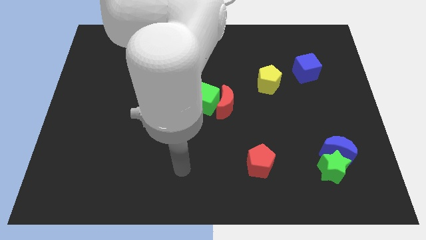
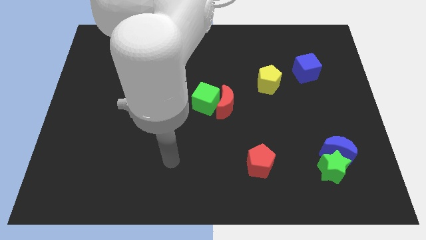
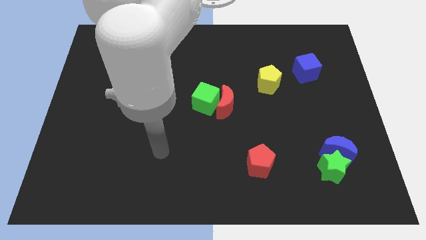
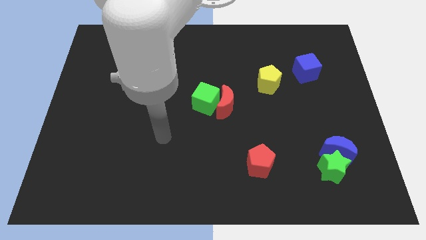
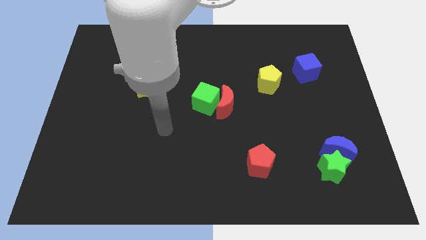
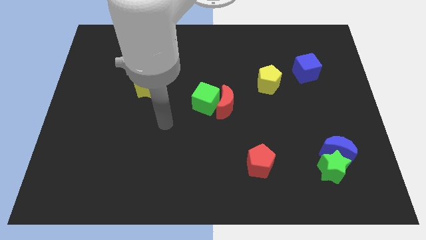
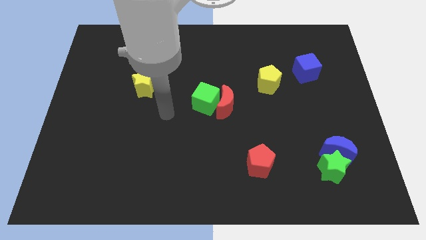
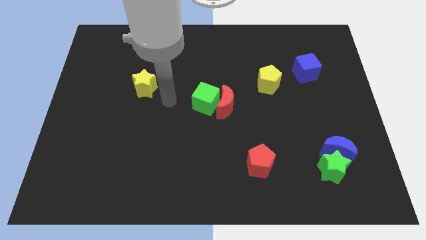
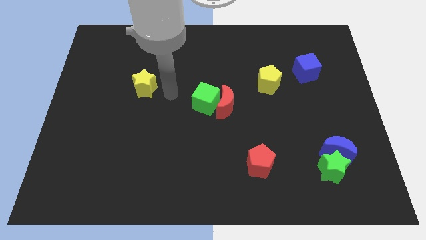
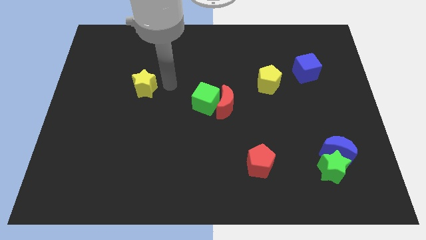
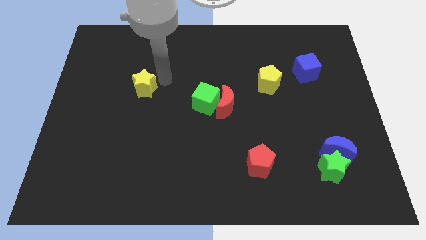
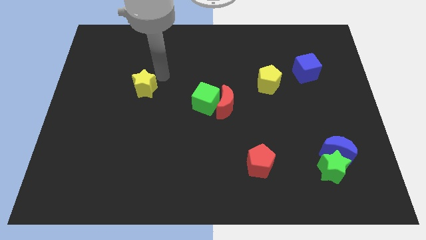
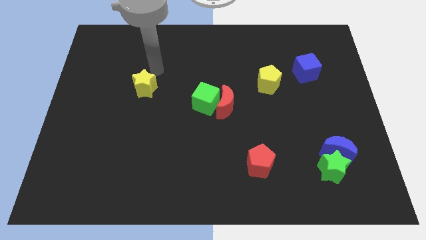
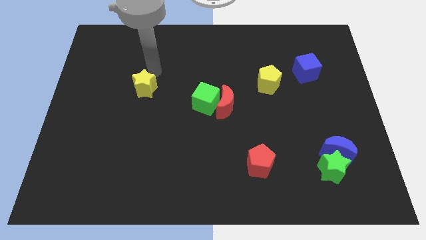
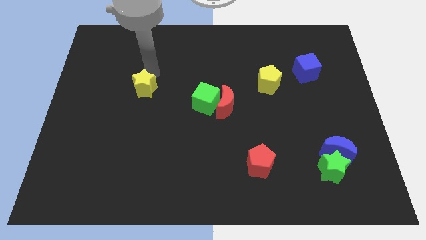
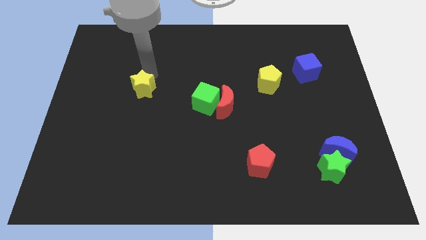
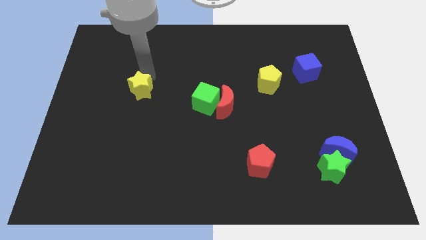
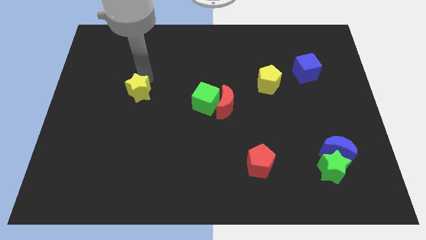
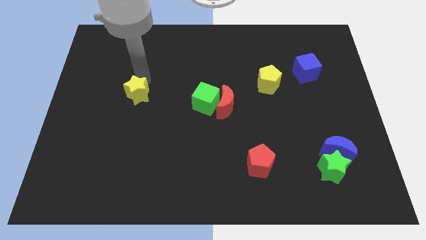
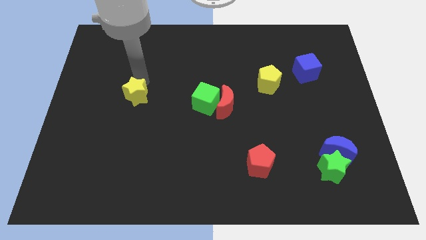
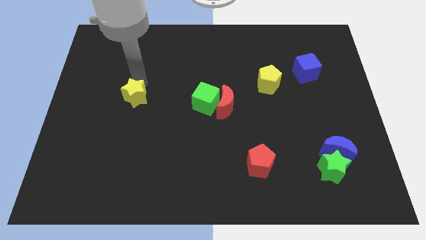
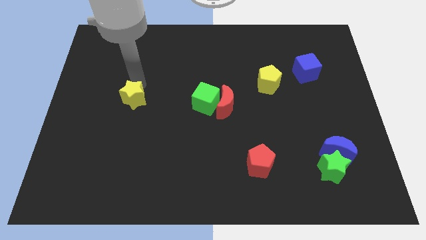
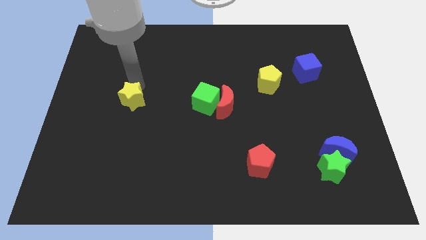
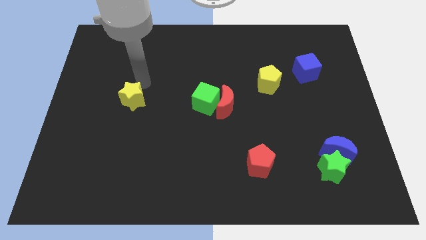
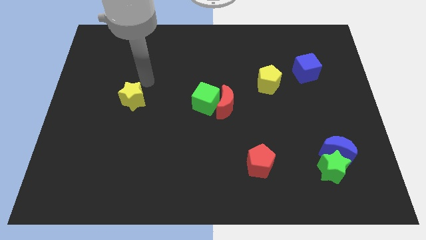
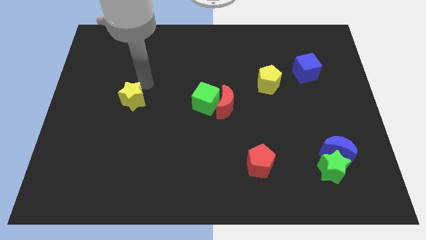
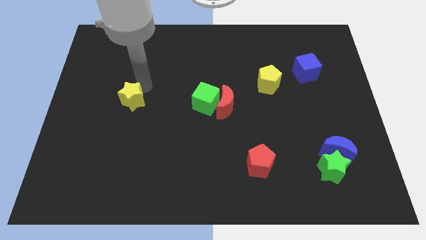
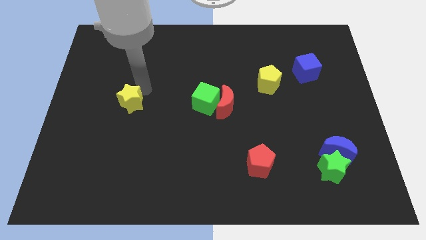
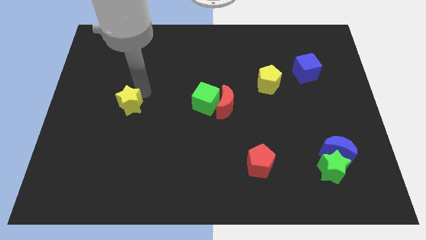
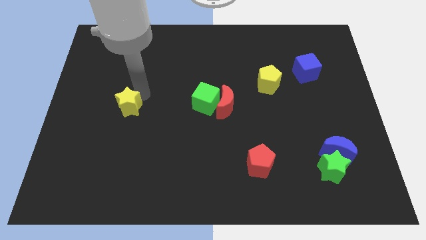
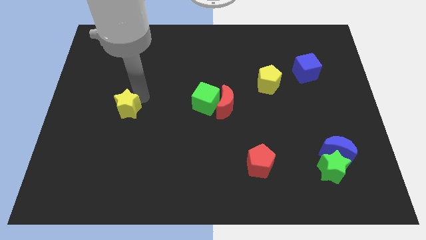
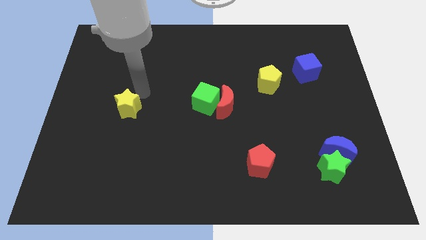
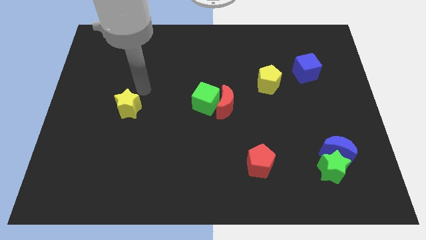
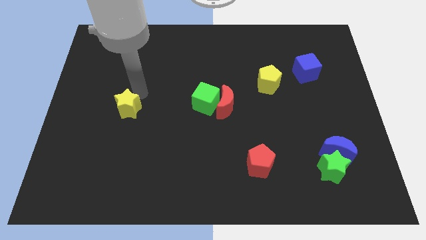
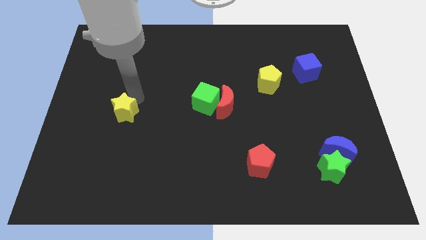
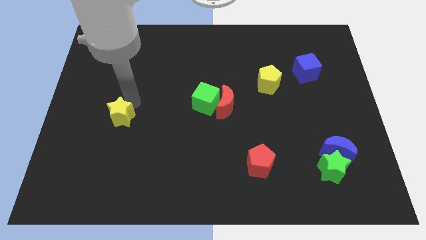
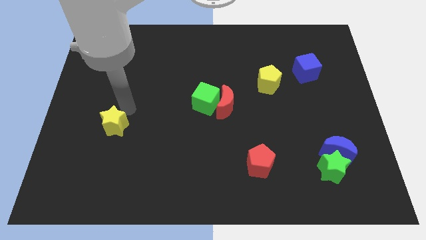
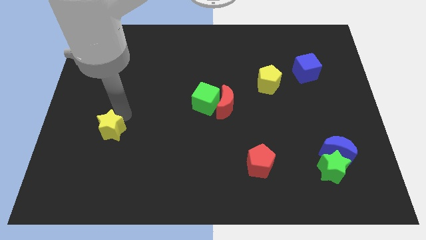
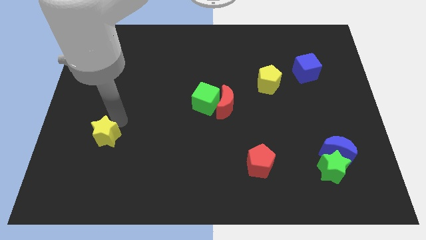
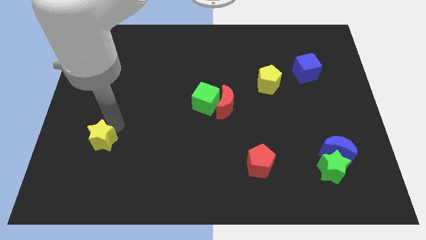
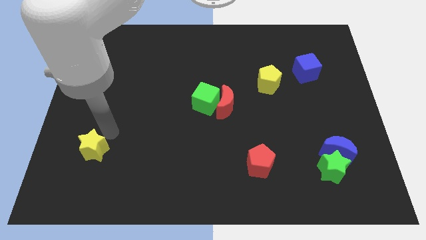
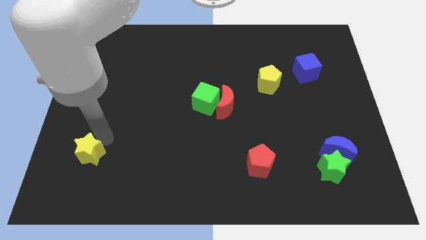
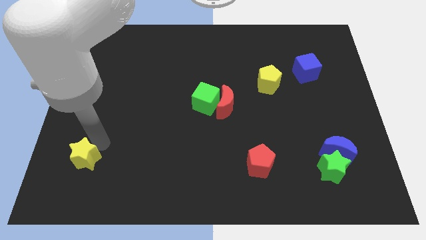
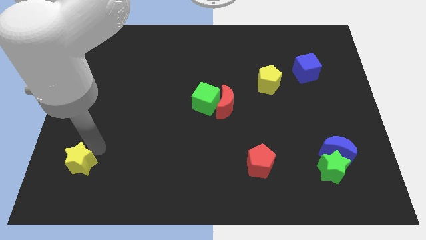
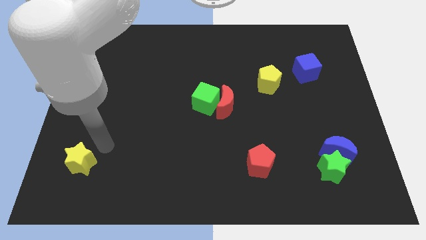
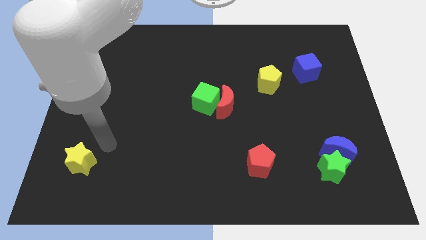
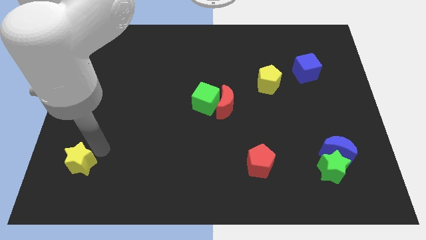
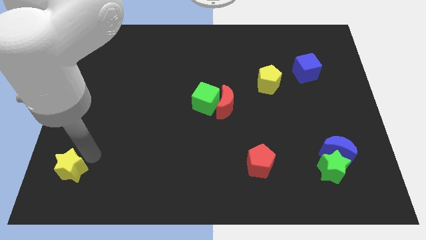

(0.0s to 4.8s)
move the yellow star to the bottom left

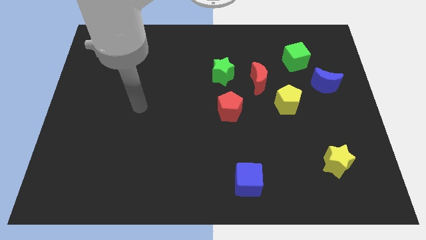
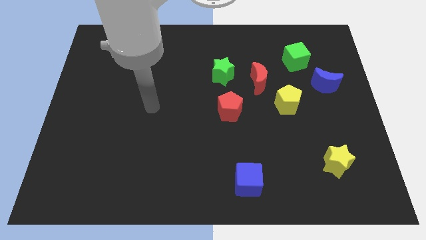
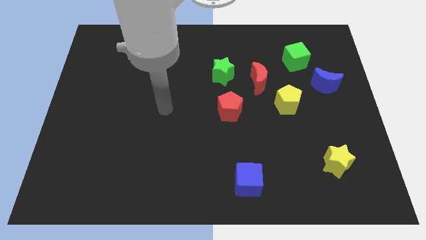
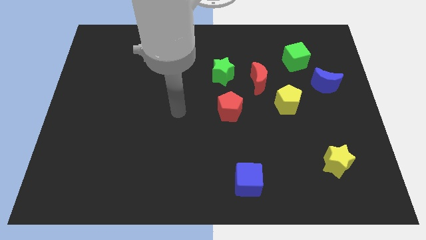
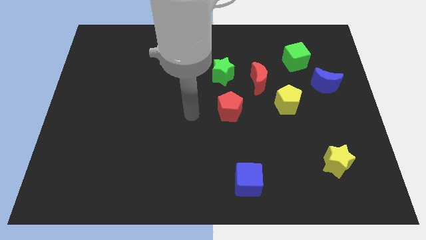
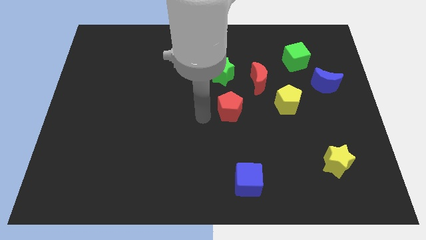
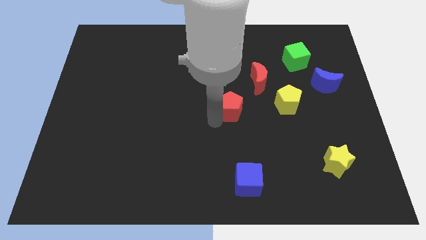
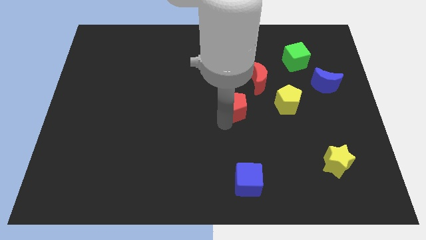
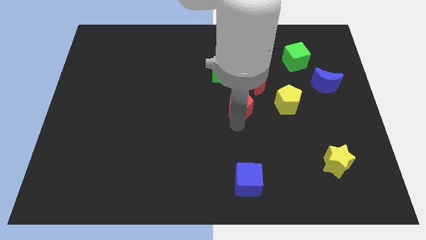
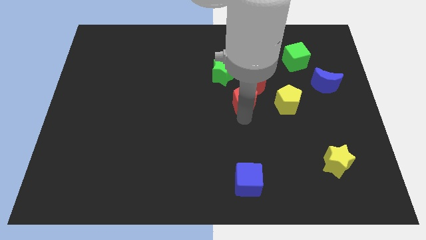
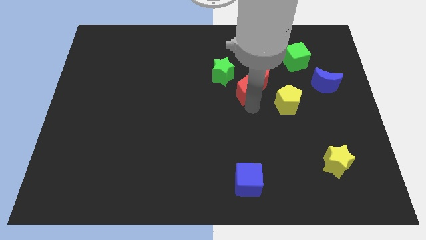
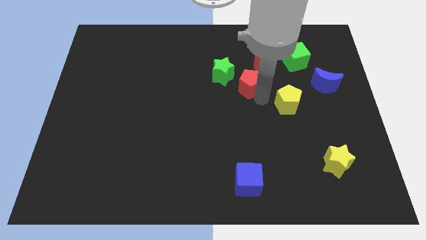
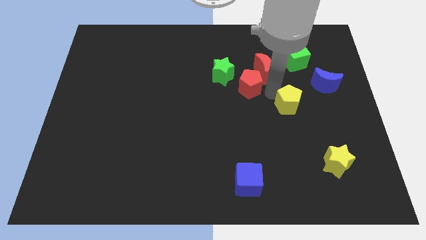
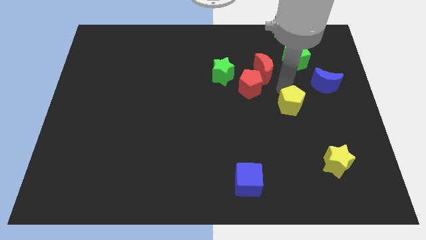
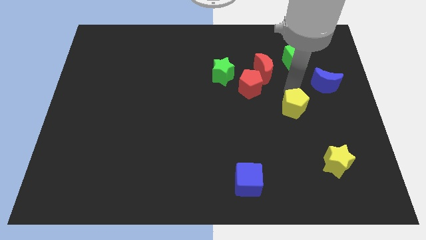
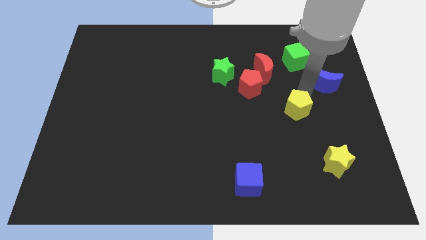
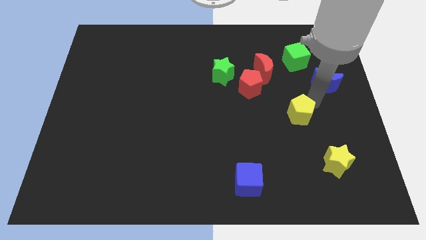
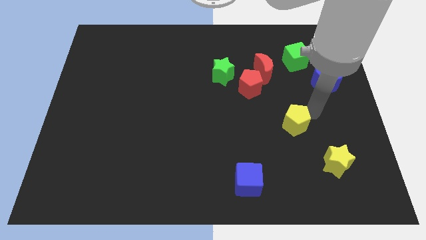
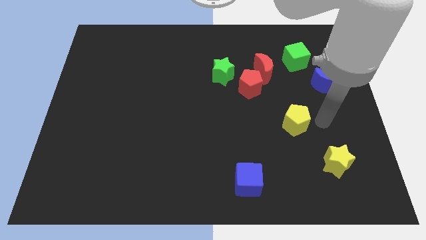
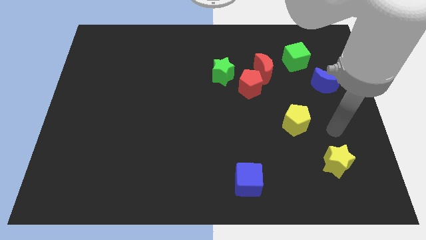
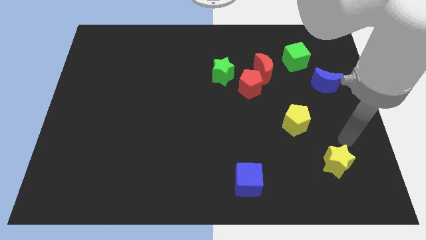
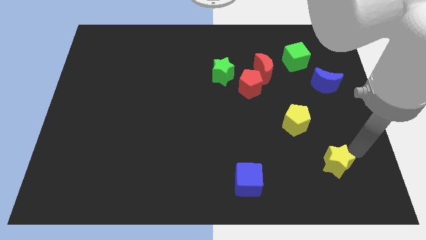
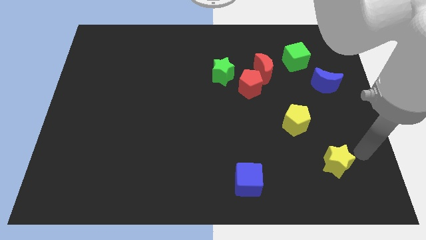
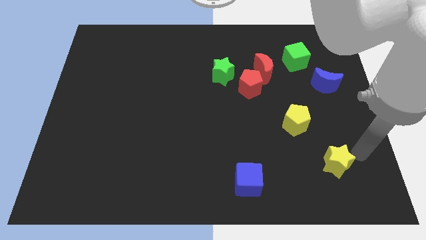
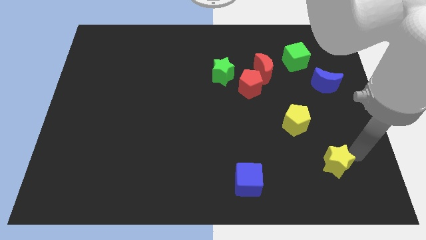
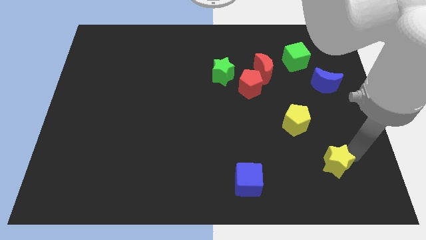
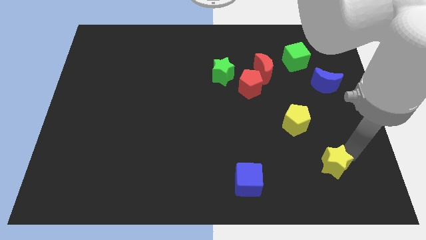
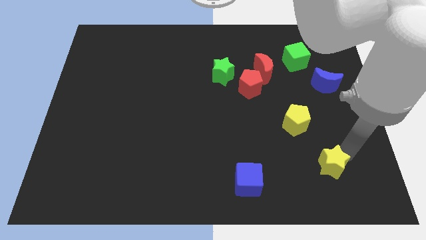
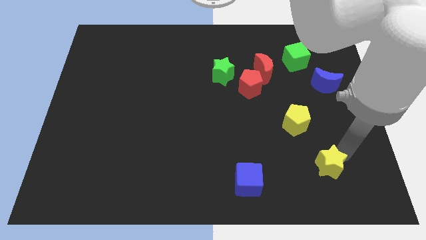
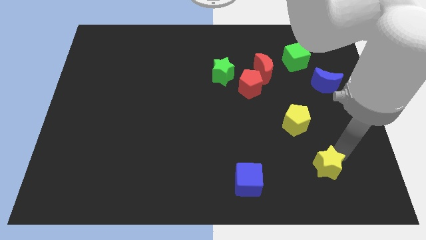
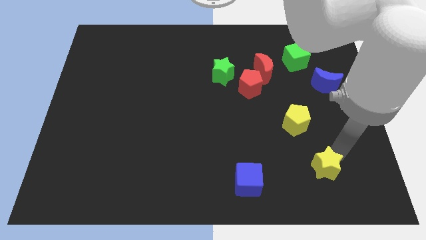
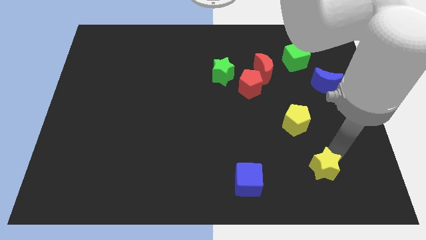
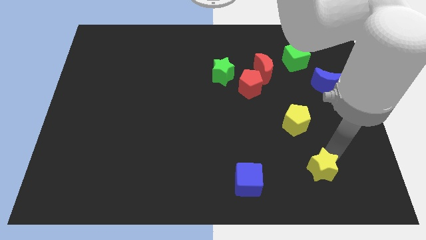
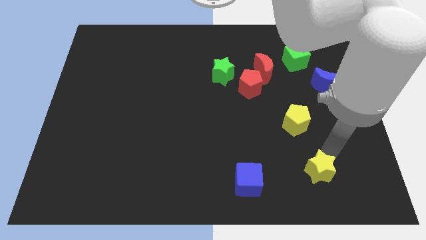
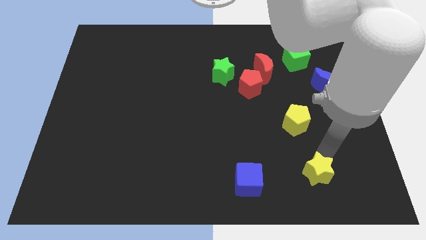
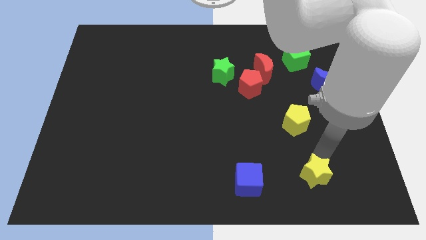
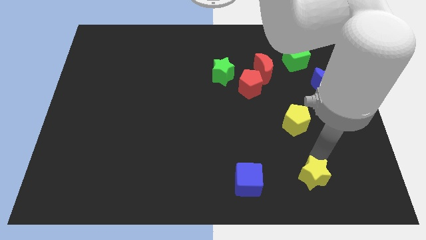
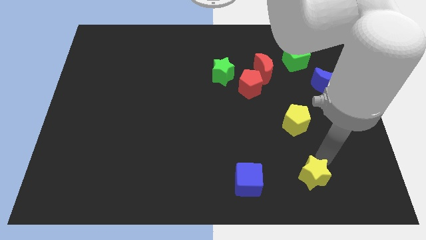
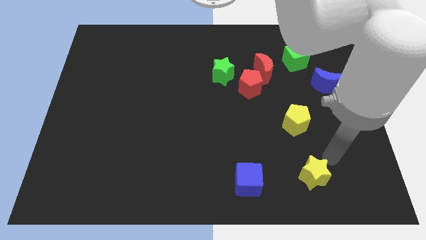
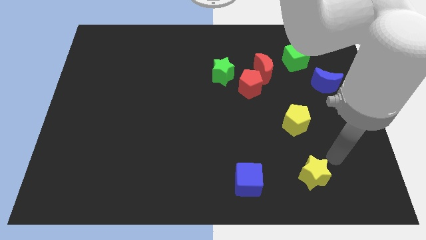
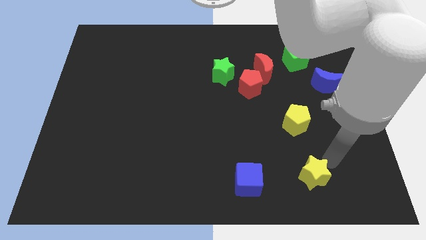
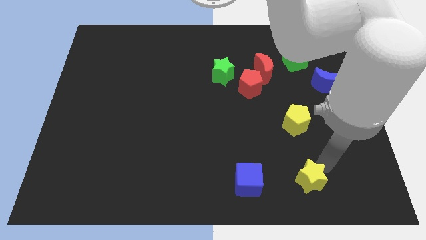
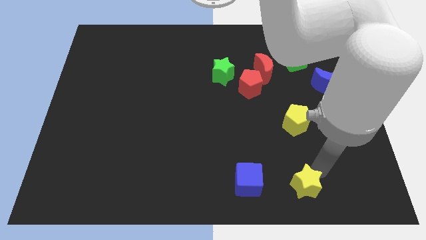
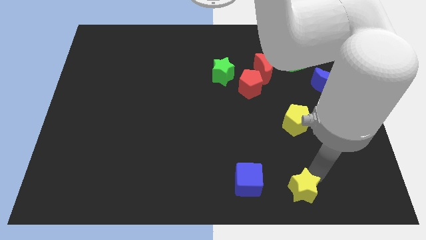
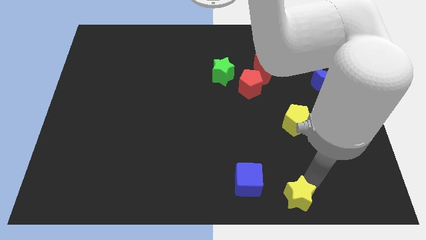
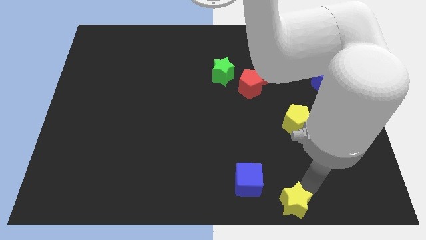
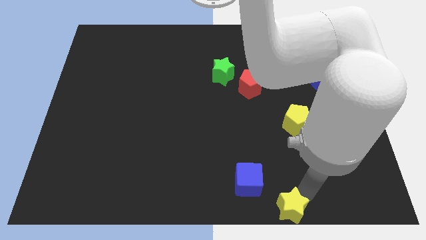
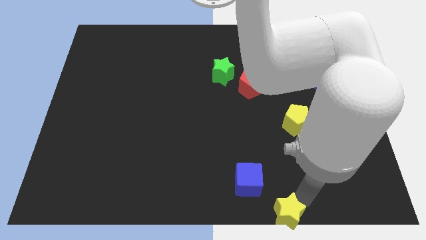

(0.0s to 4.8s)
move the yellow star to the bottom
